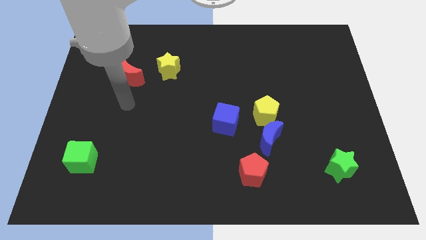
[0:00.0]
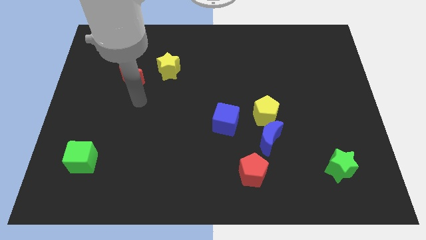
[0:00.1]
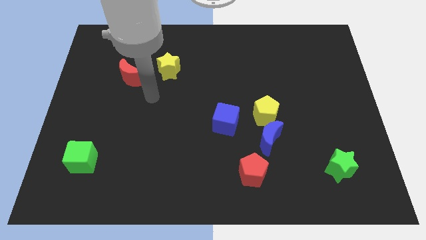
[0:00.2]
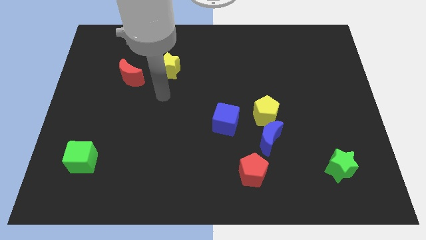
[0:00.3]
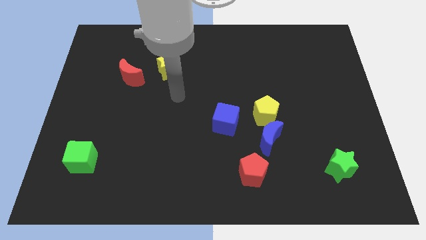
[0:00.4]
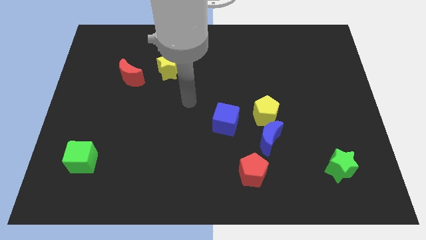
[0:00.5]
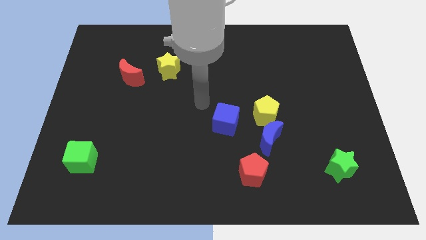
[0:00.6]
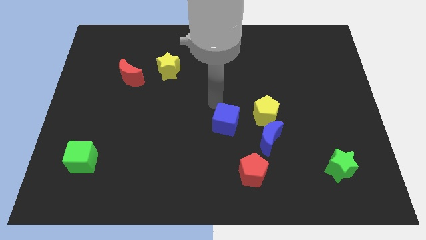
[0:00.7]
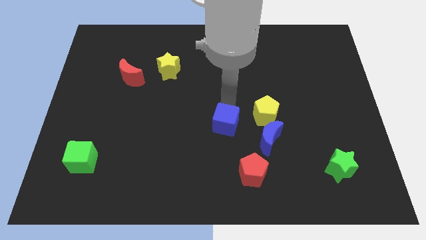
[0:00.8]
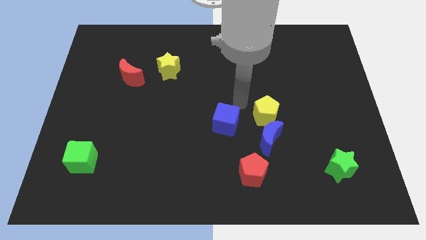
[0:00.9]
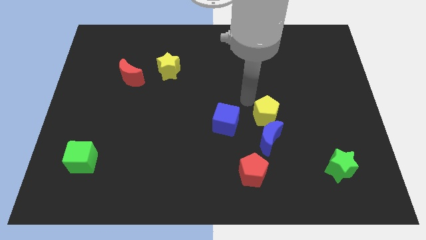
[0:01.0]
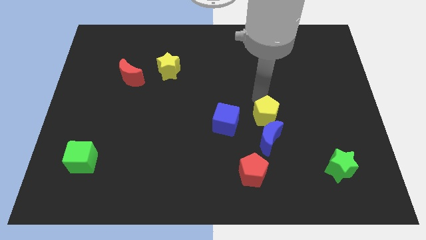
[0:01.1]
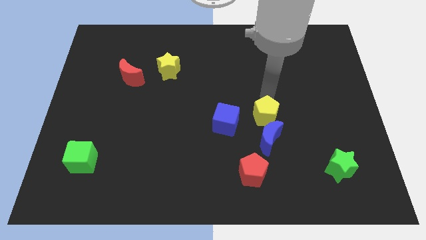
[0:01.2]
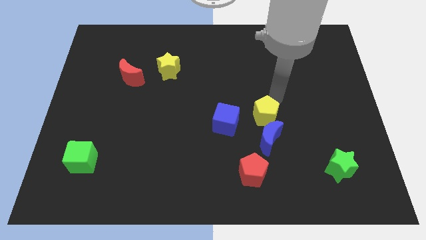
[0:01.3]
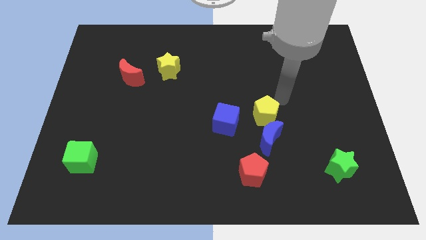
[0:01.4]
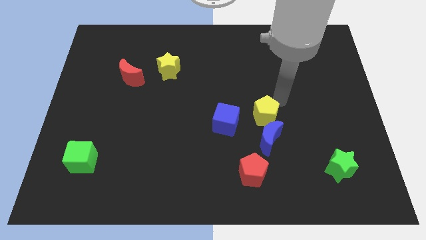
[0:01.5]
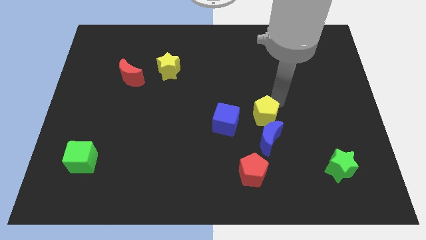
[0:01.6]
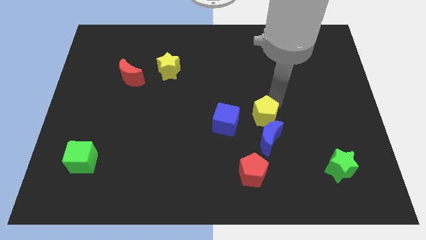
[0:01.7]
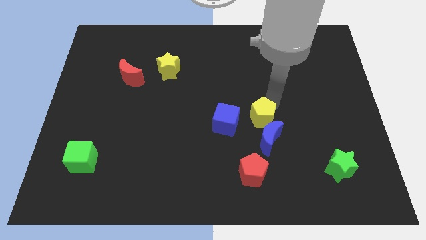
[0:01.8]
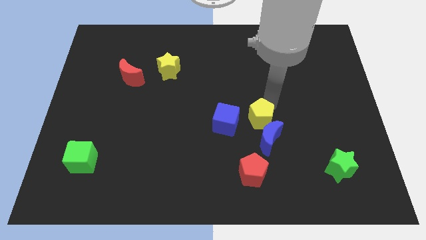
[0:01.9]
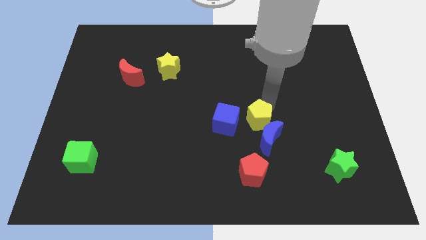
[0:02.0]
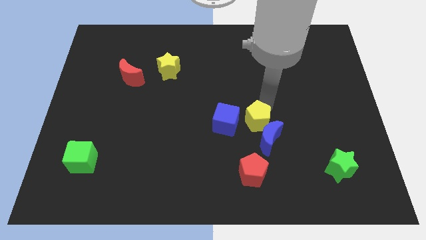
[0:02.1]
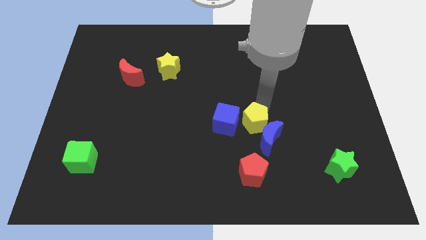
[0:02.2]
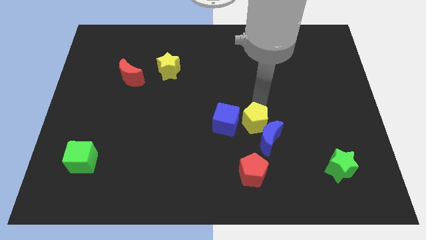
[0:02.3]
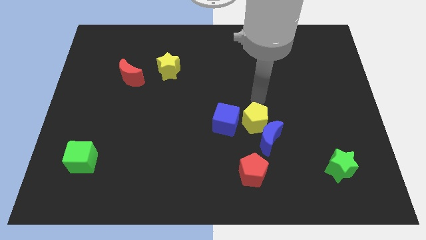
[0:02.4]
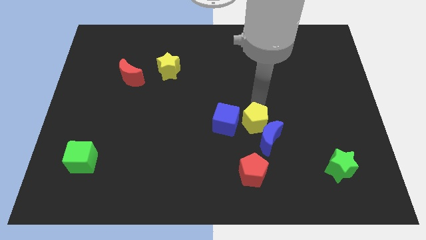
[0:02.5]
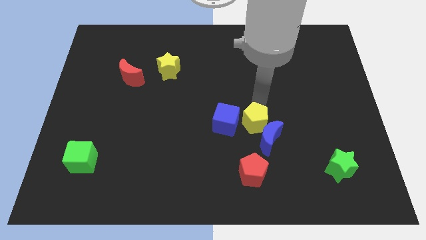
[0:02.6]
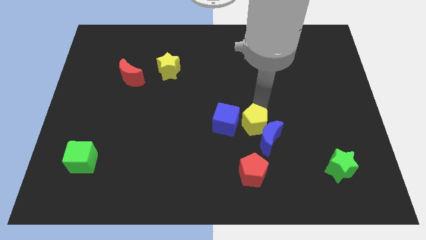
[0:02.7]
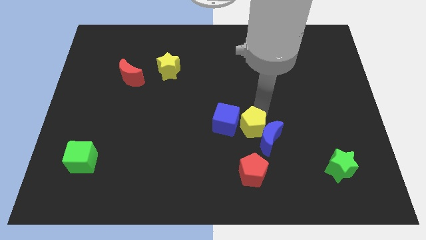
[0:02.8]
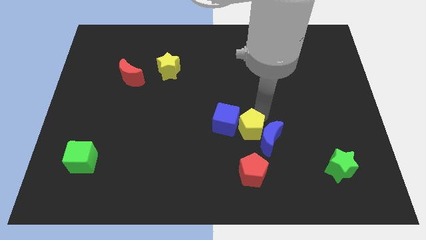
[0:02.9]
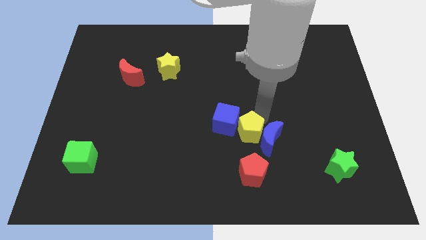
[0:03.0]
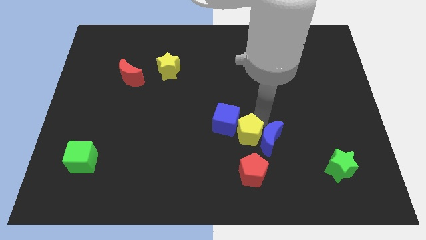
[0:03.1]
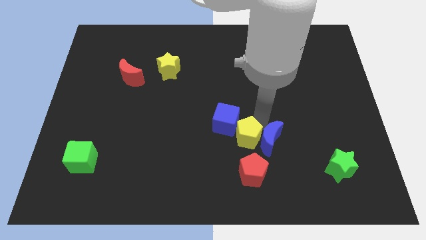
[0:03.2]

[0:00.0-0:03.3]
push the yellow pentagon a little diagonally downwards and left

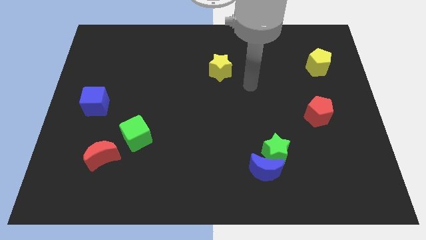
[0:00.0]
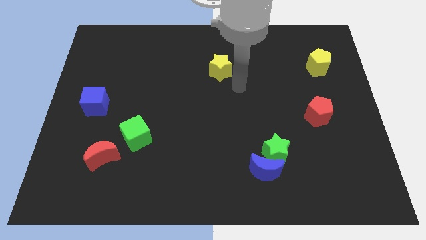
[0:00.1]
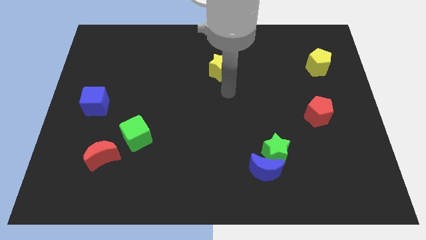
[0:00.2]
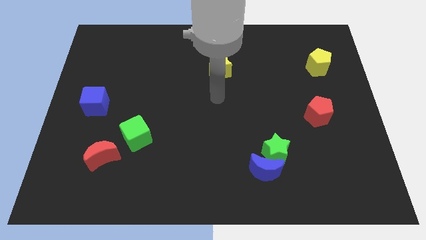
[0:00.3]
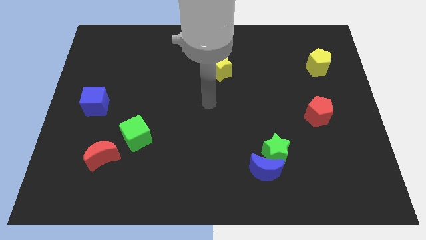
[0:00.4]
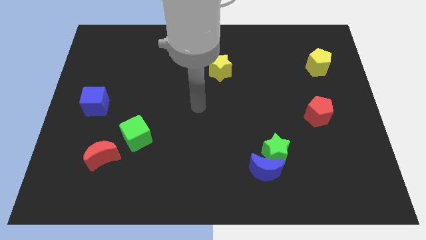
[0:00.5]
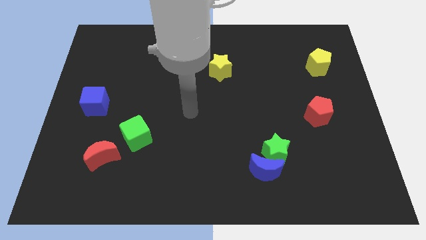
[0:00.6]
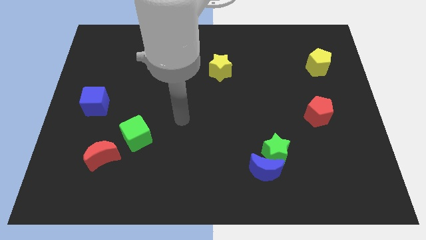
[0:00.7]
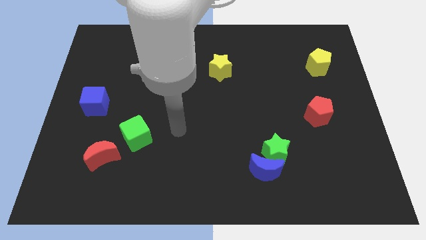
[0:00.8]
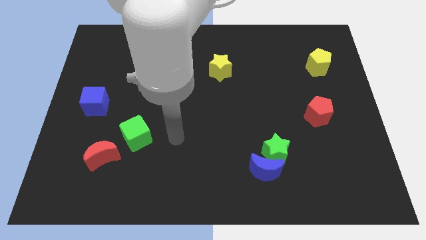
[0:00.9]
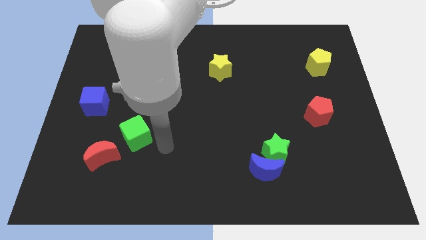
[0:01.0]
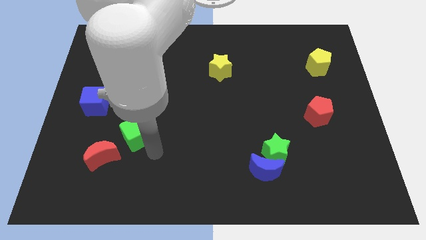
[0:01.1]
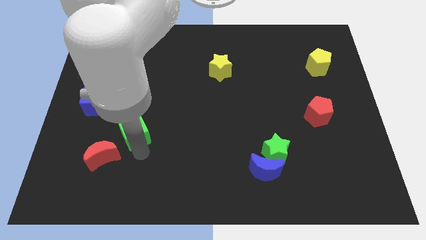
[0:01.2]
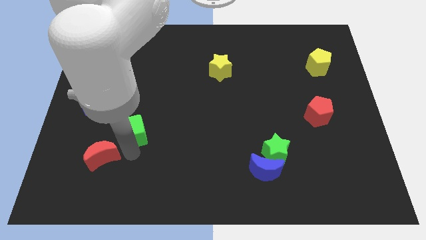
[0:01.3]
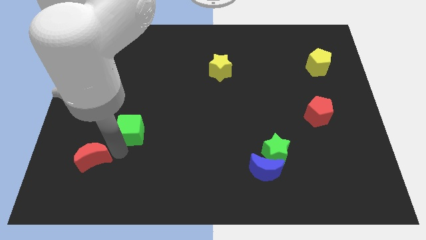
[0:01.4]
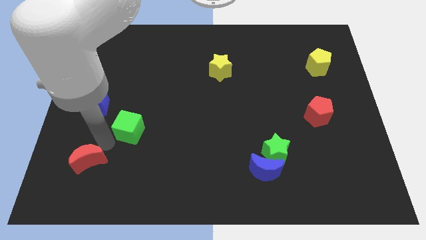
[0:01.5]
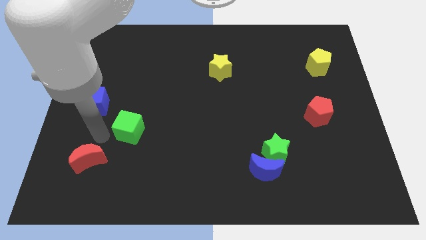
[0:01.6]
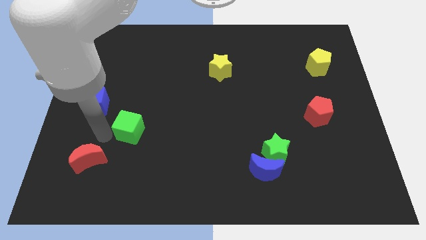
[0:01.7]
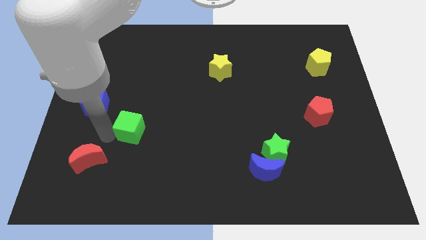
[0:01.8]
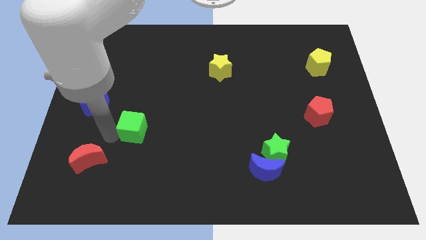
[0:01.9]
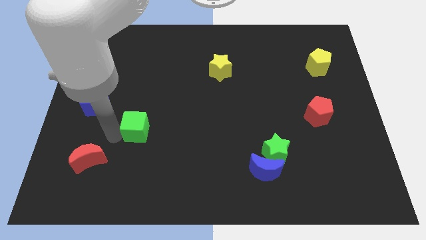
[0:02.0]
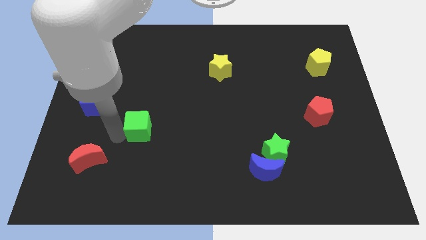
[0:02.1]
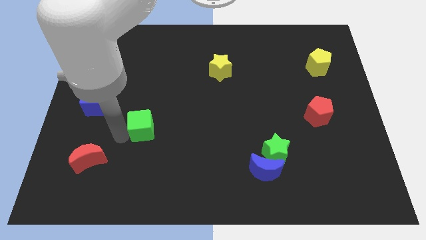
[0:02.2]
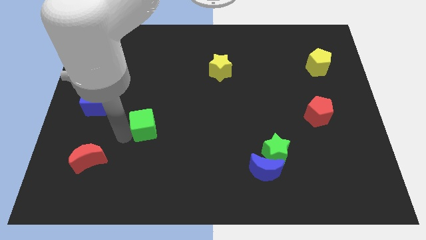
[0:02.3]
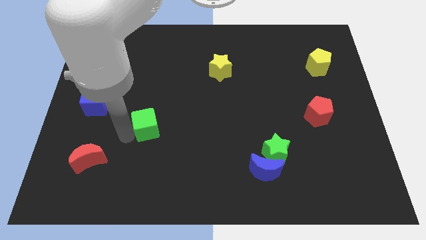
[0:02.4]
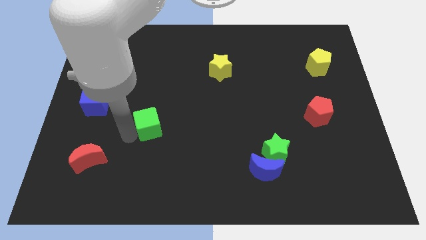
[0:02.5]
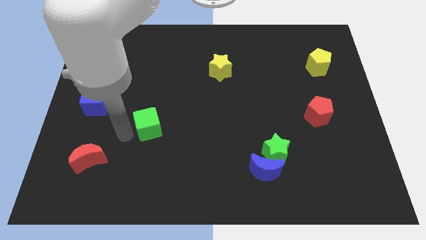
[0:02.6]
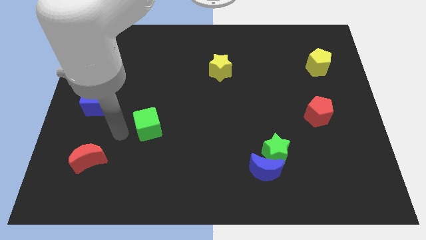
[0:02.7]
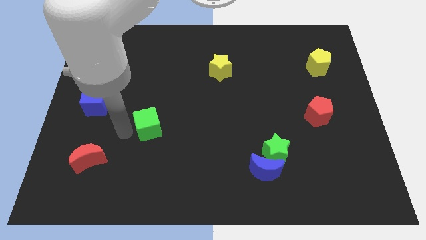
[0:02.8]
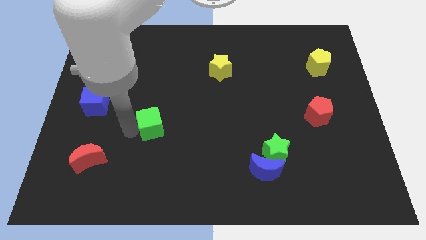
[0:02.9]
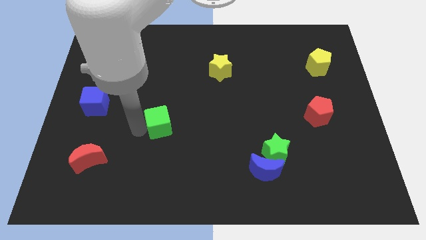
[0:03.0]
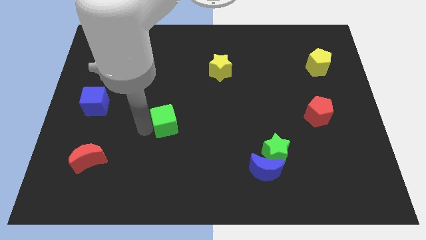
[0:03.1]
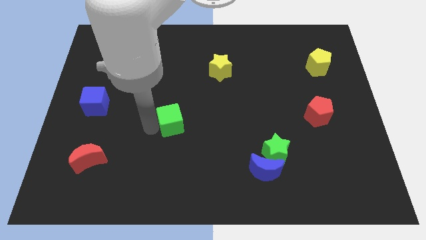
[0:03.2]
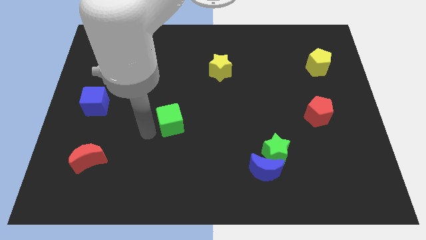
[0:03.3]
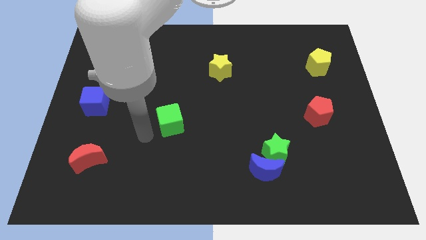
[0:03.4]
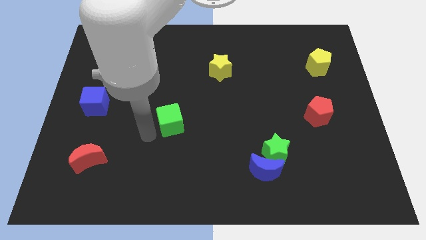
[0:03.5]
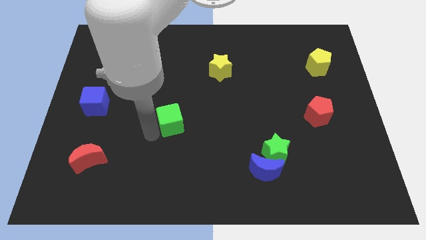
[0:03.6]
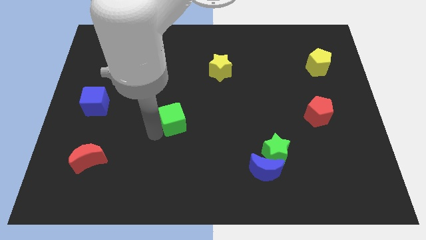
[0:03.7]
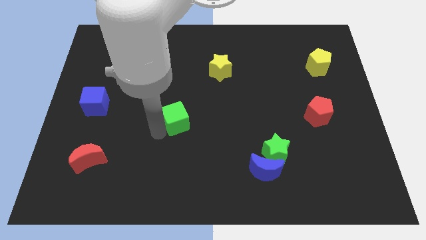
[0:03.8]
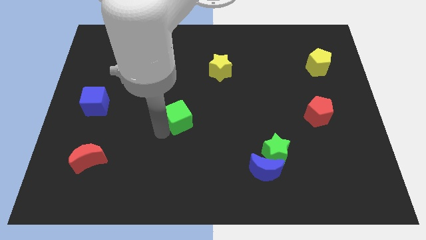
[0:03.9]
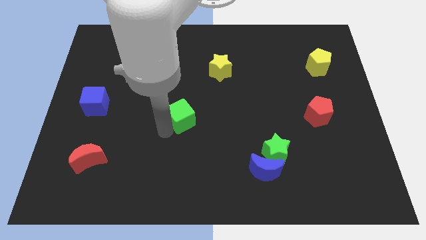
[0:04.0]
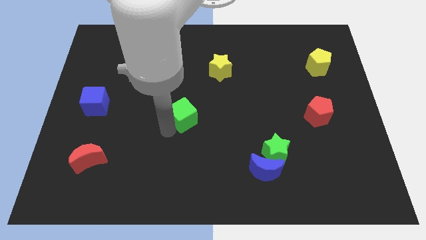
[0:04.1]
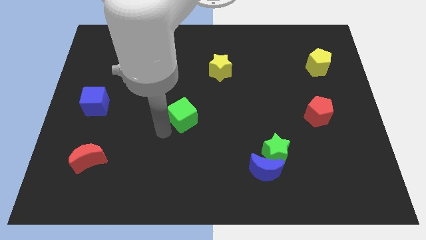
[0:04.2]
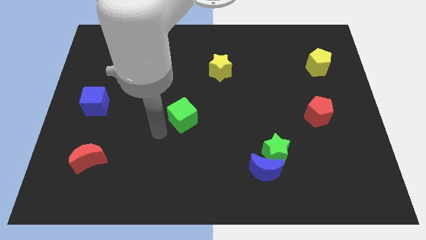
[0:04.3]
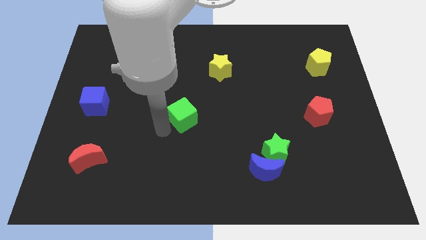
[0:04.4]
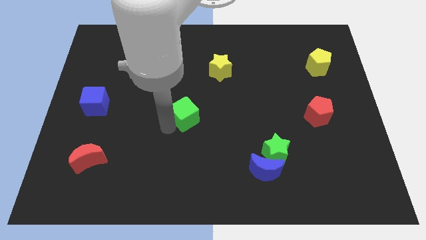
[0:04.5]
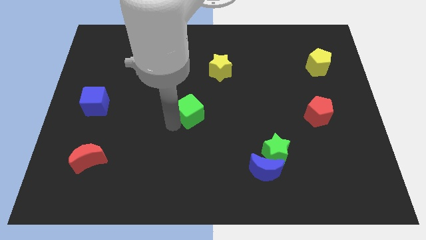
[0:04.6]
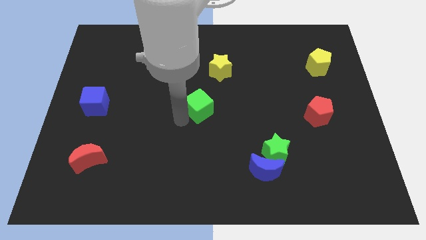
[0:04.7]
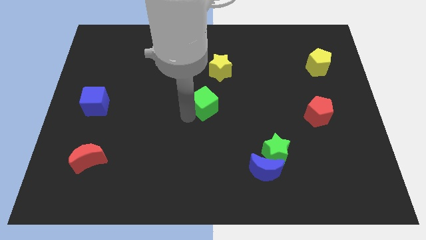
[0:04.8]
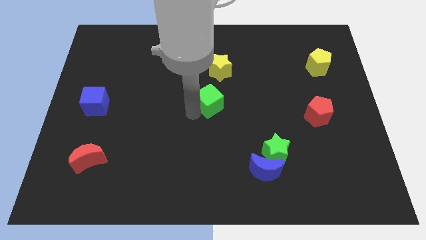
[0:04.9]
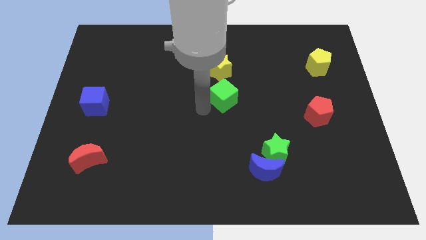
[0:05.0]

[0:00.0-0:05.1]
move the green cube diagonally up and to the right
